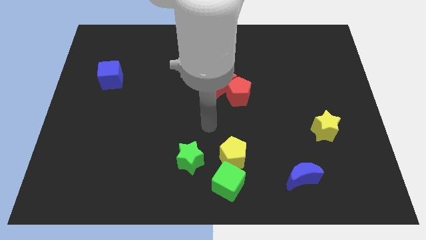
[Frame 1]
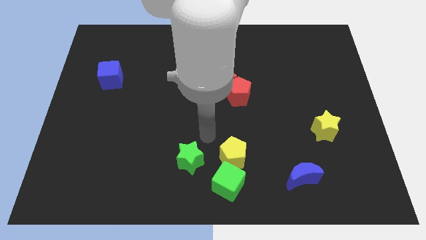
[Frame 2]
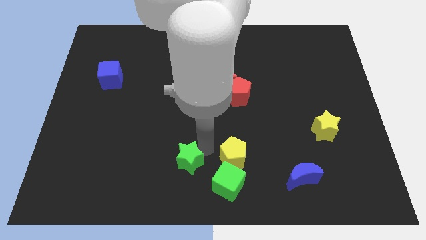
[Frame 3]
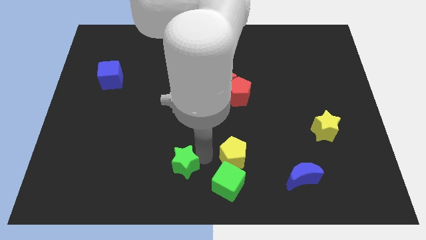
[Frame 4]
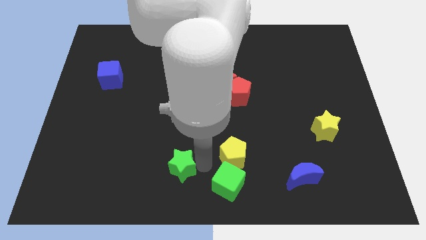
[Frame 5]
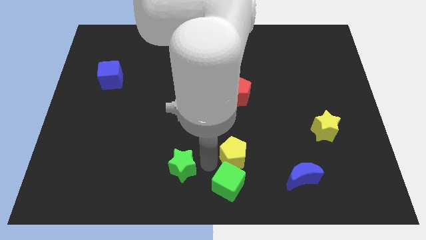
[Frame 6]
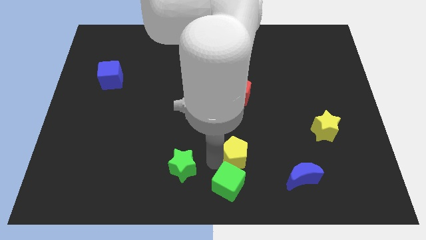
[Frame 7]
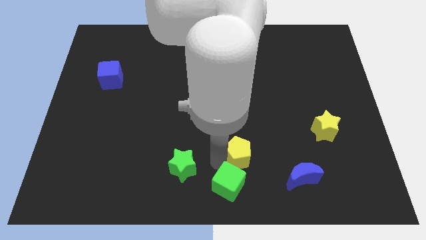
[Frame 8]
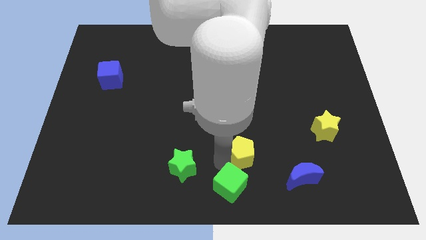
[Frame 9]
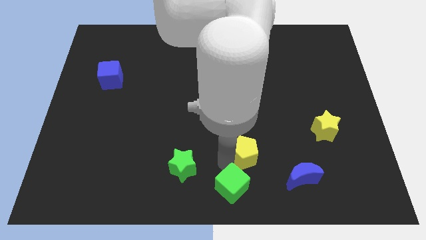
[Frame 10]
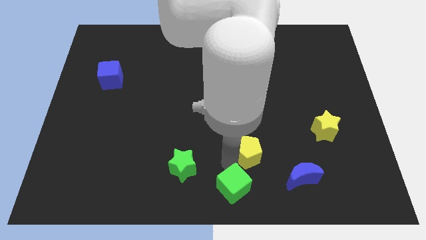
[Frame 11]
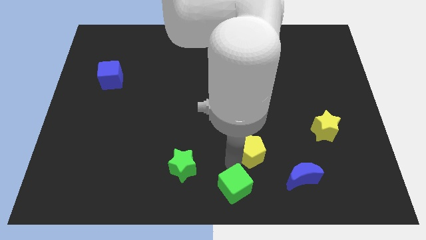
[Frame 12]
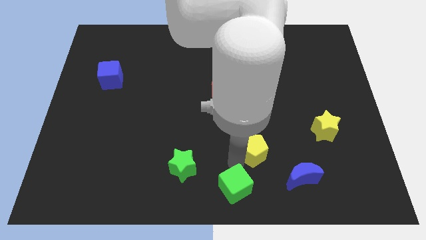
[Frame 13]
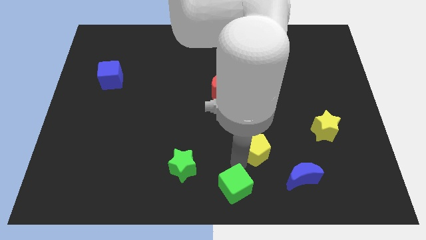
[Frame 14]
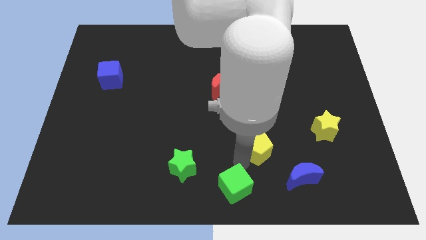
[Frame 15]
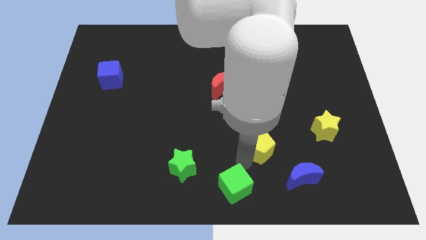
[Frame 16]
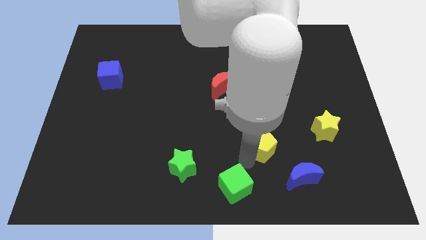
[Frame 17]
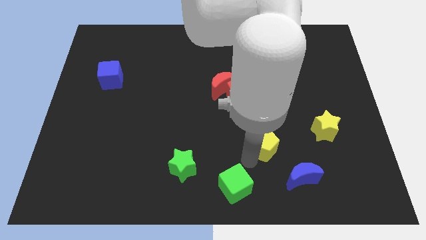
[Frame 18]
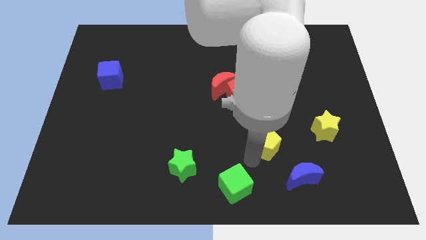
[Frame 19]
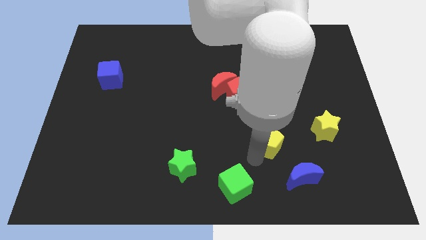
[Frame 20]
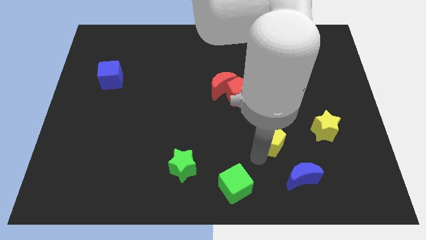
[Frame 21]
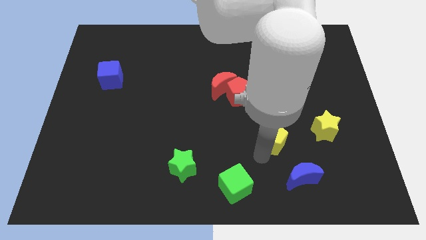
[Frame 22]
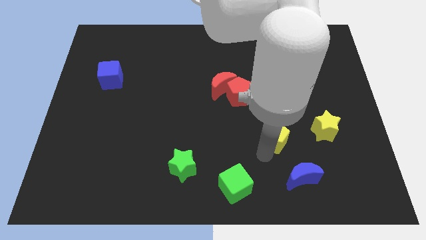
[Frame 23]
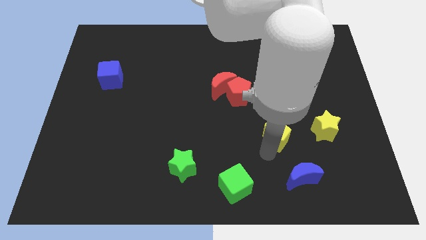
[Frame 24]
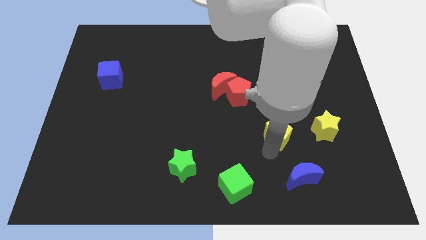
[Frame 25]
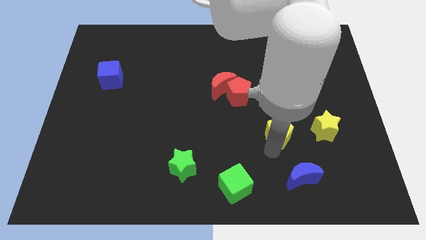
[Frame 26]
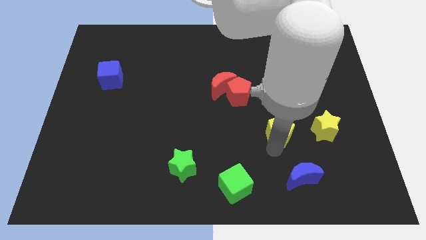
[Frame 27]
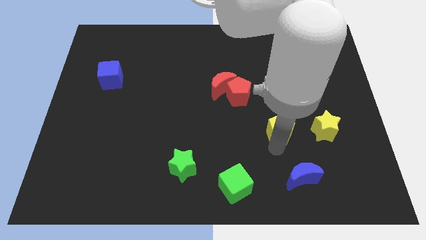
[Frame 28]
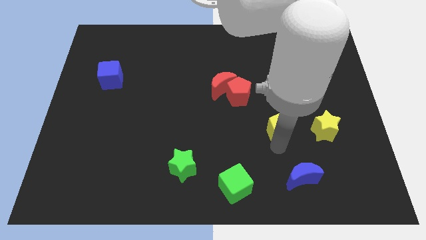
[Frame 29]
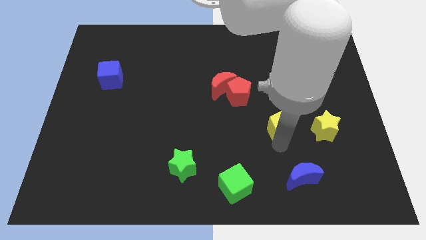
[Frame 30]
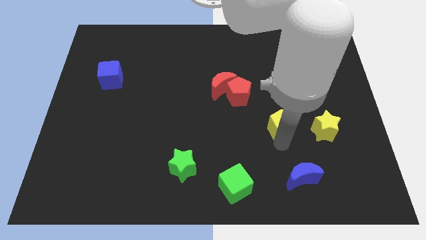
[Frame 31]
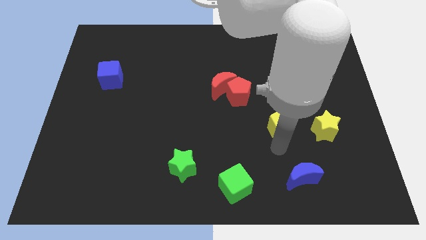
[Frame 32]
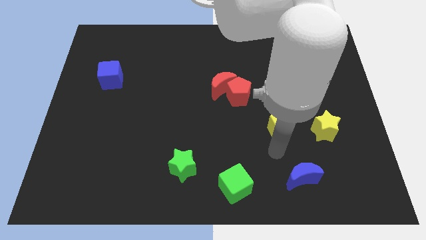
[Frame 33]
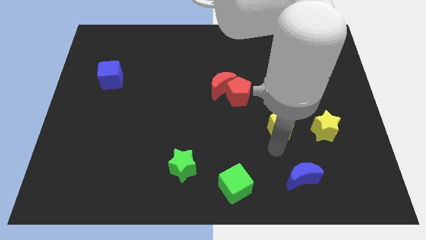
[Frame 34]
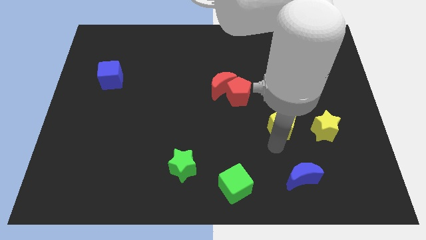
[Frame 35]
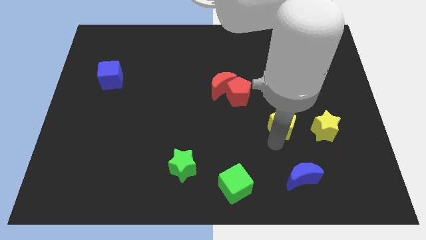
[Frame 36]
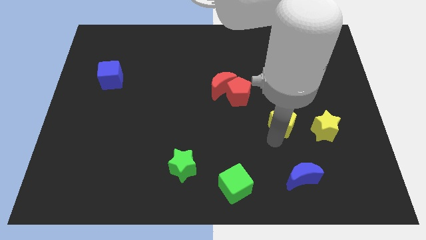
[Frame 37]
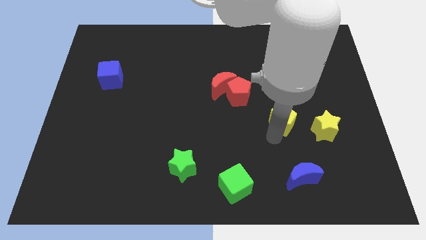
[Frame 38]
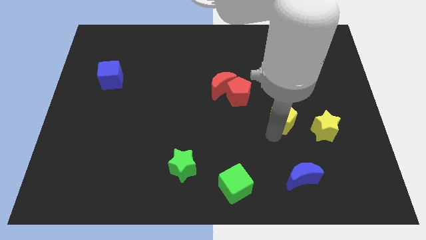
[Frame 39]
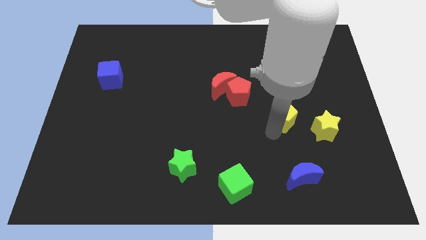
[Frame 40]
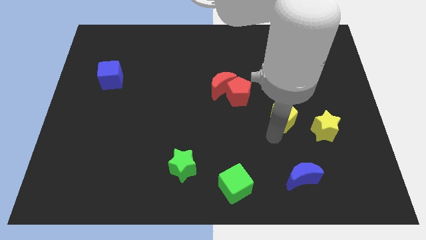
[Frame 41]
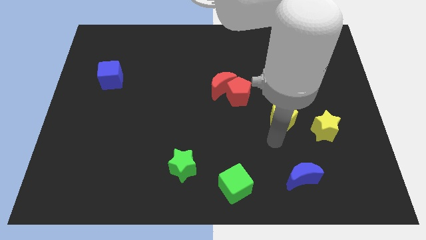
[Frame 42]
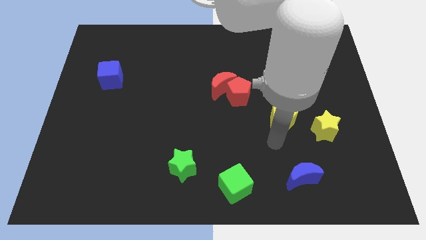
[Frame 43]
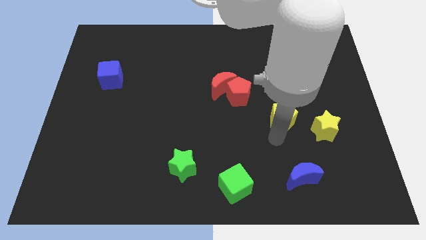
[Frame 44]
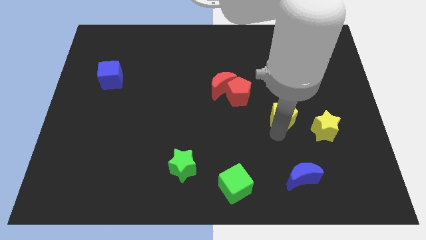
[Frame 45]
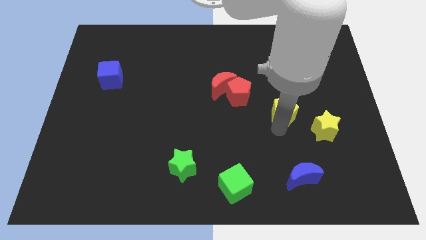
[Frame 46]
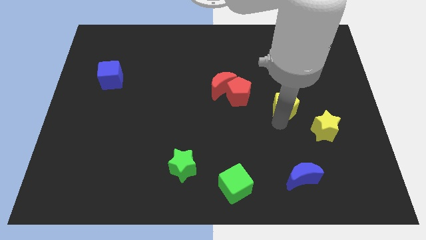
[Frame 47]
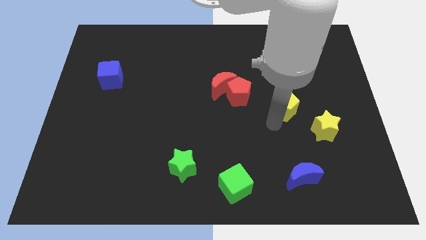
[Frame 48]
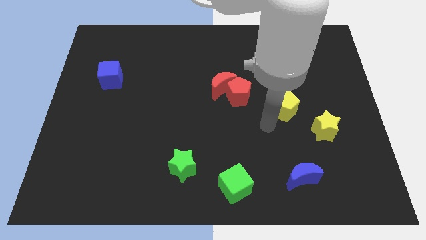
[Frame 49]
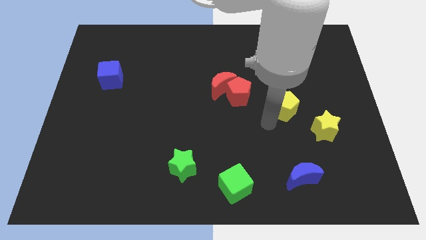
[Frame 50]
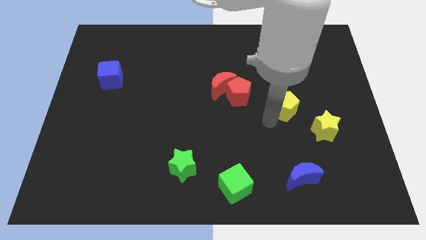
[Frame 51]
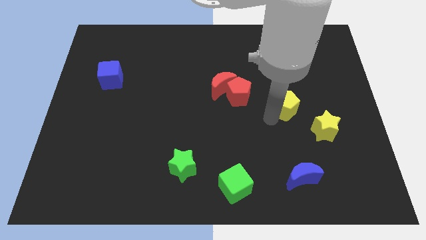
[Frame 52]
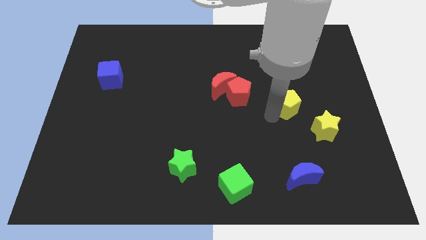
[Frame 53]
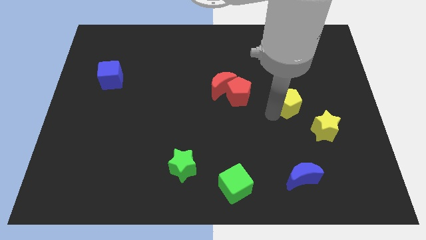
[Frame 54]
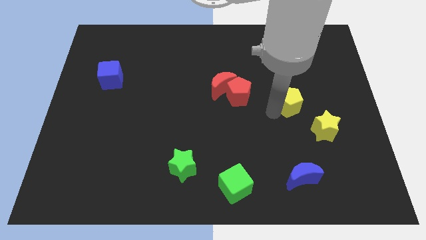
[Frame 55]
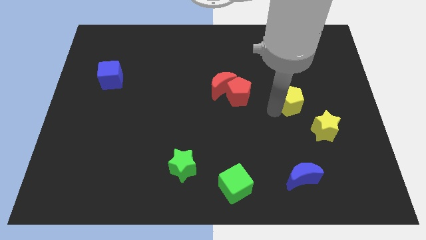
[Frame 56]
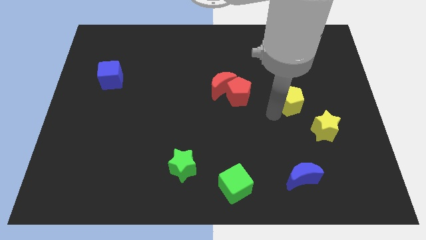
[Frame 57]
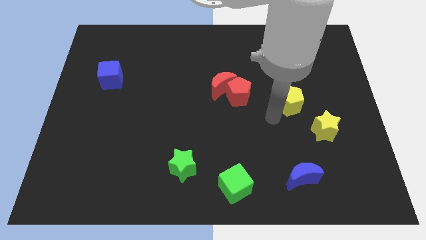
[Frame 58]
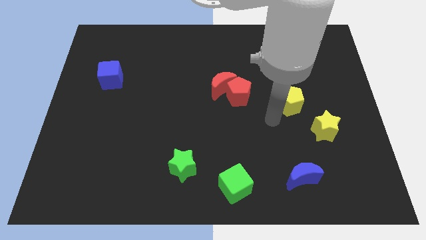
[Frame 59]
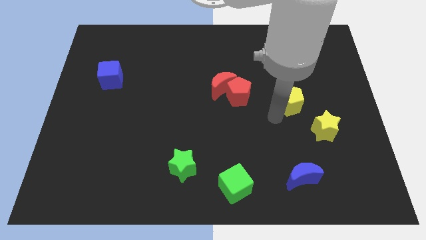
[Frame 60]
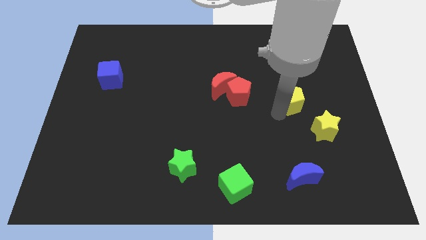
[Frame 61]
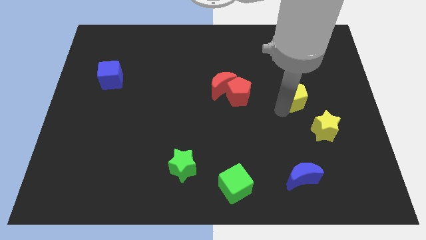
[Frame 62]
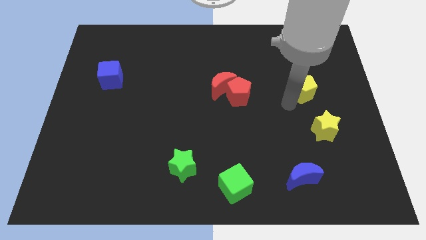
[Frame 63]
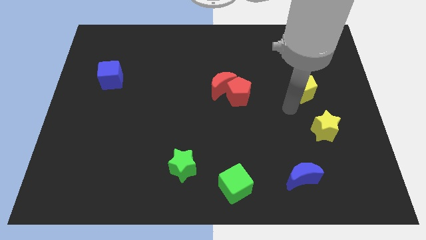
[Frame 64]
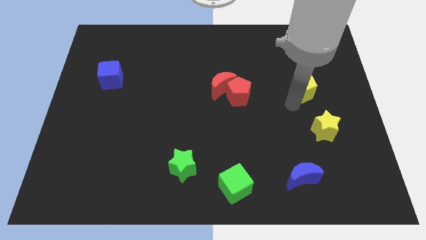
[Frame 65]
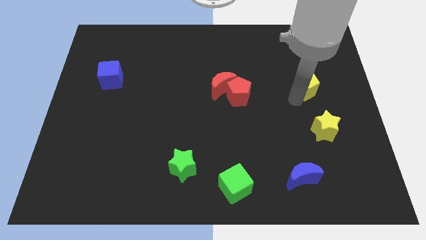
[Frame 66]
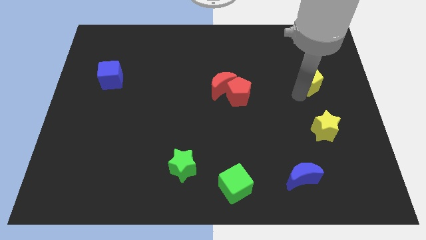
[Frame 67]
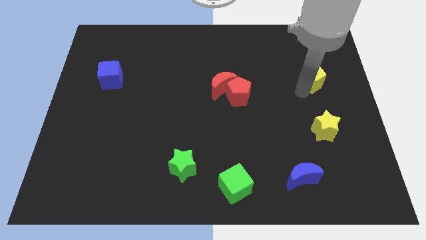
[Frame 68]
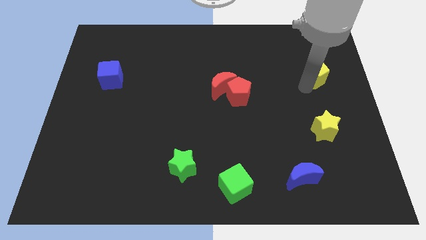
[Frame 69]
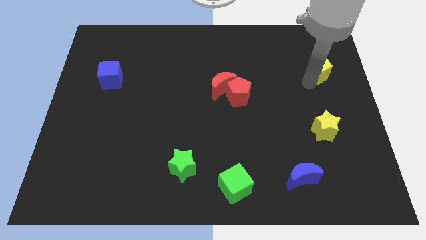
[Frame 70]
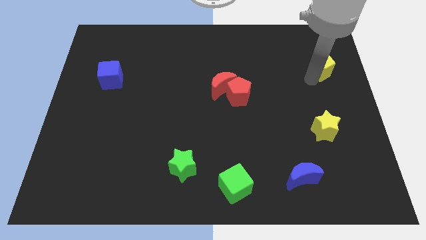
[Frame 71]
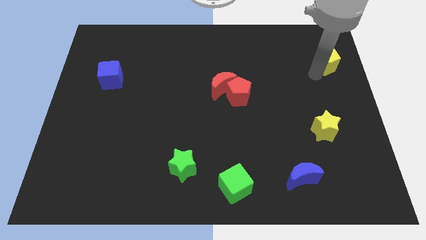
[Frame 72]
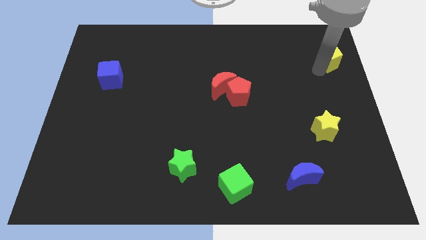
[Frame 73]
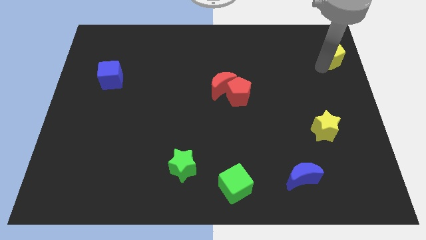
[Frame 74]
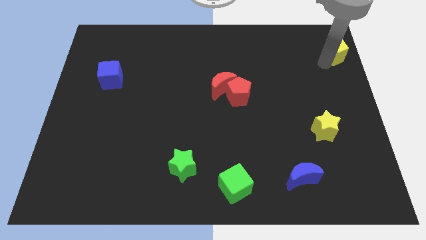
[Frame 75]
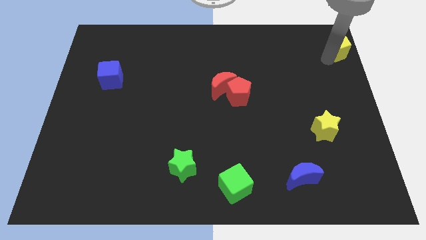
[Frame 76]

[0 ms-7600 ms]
put the yellow pentagon to the top right
